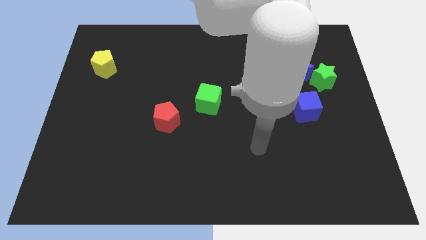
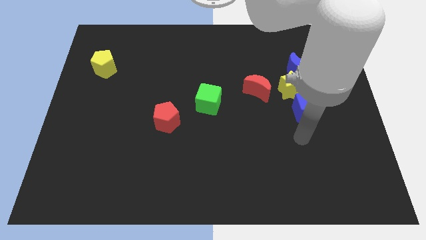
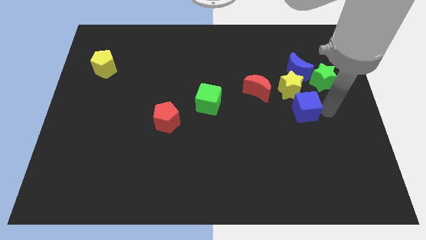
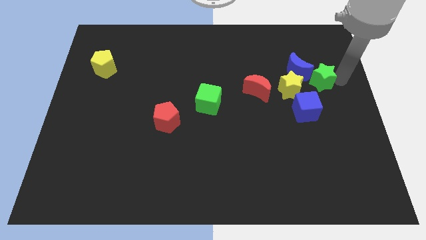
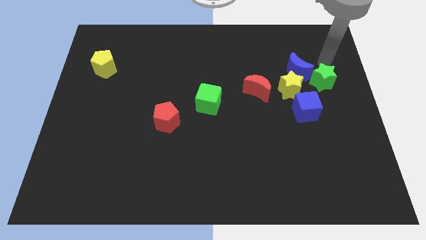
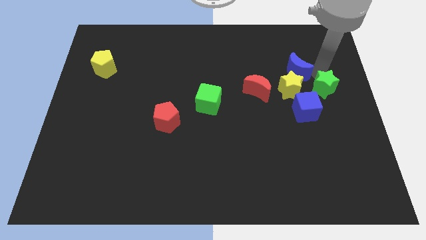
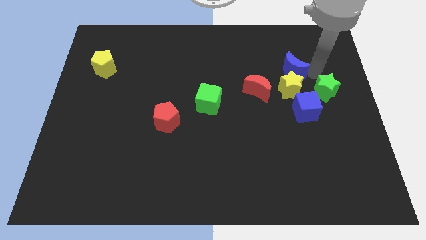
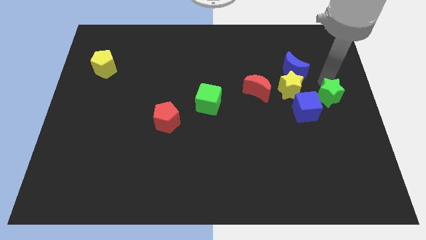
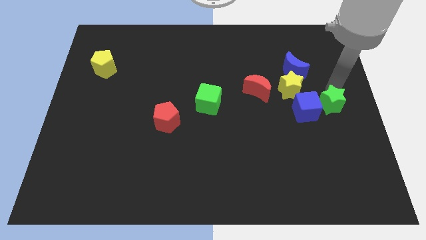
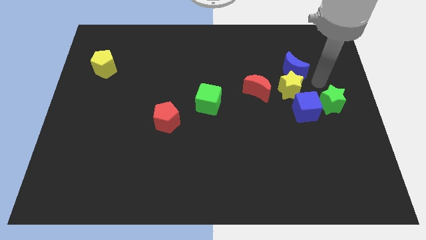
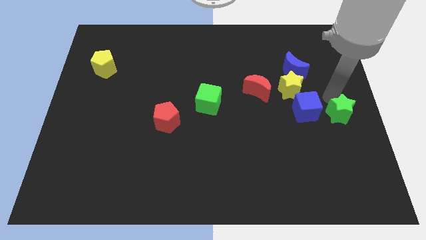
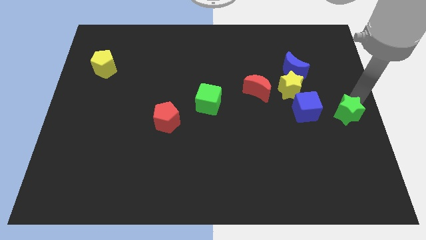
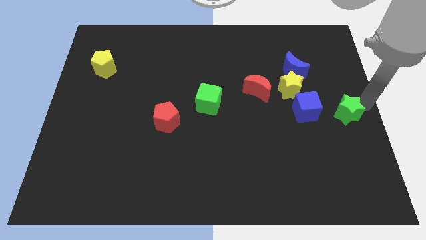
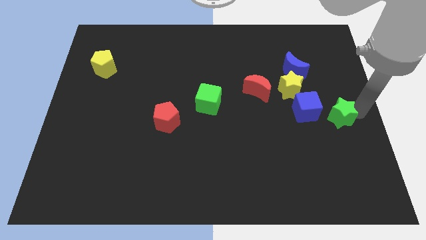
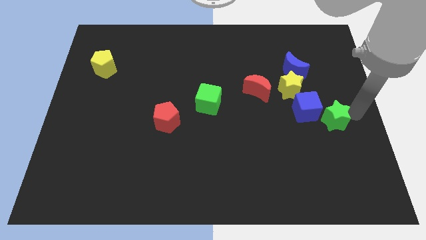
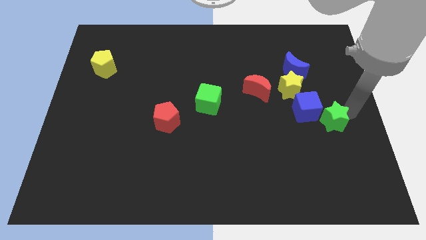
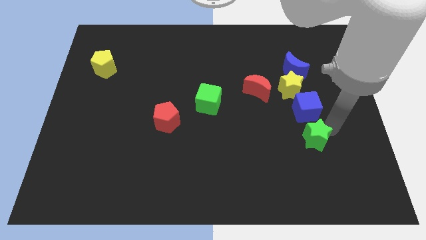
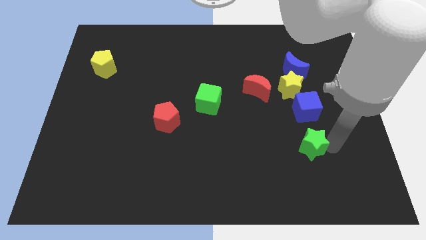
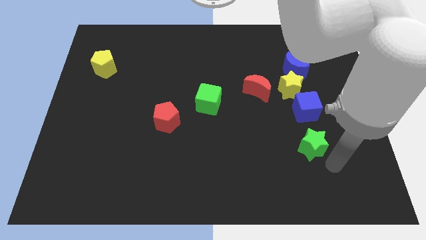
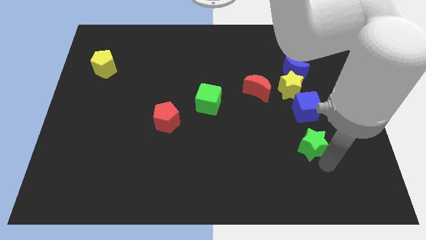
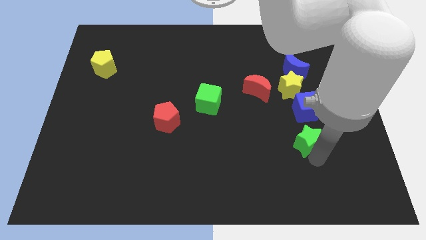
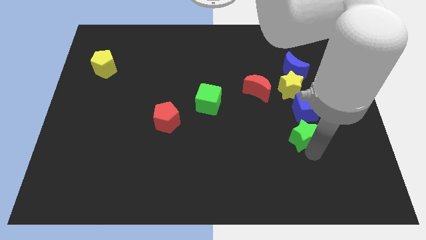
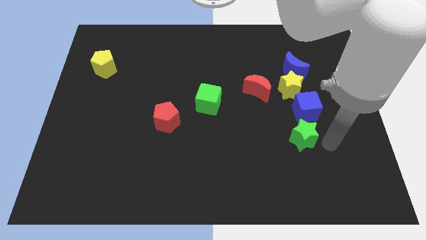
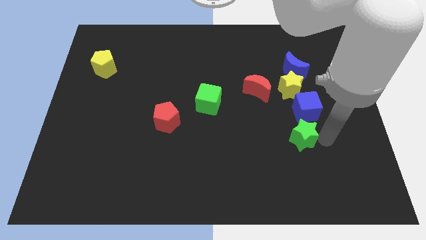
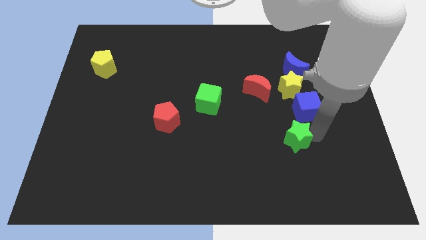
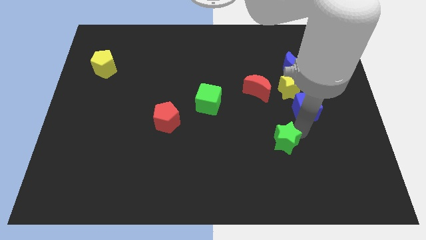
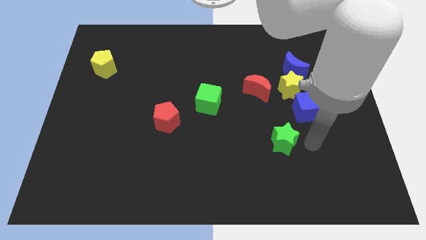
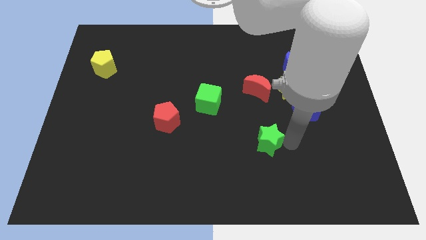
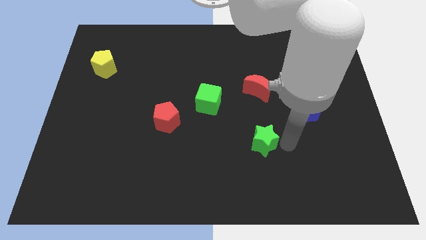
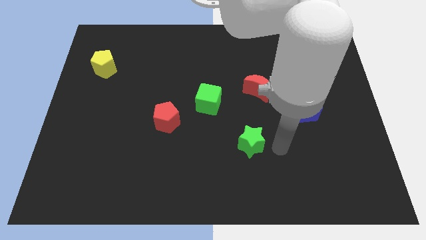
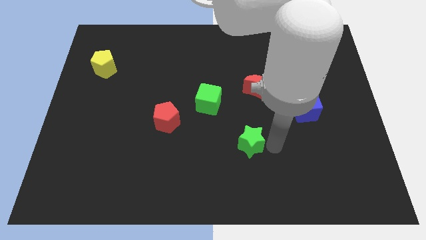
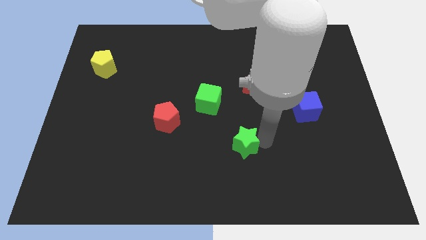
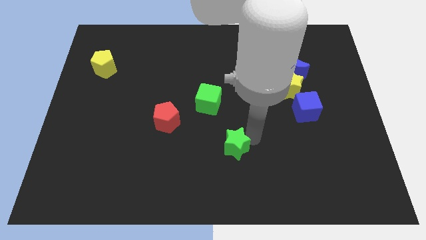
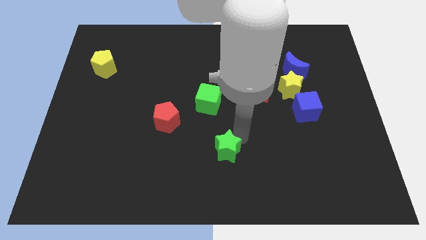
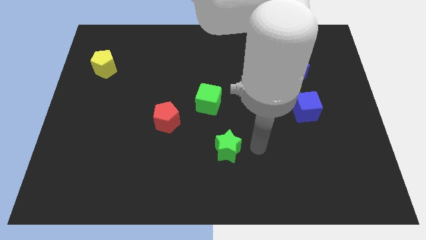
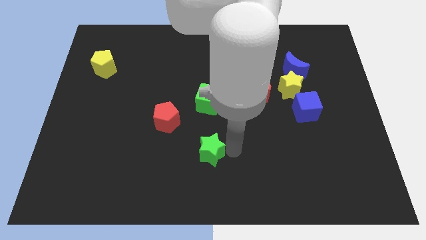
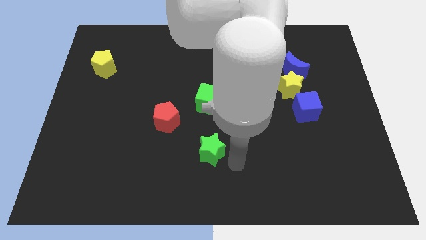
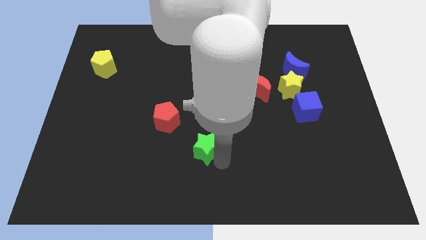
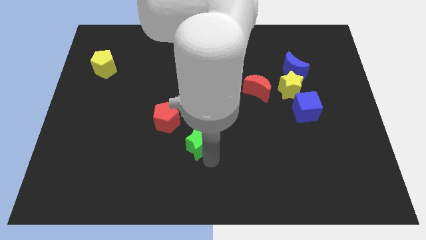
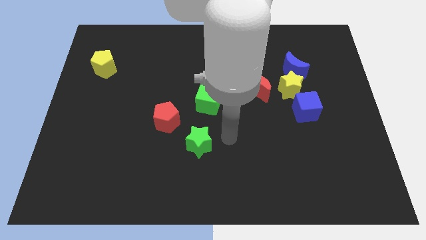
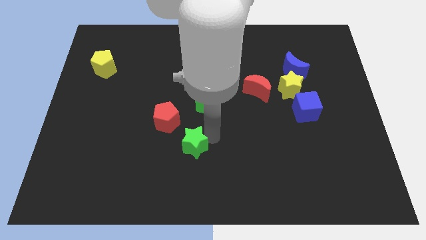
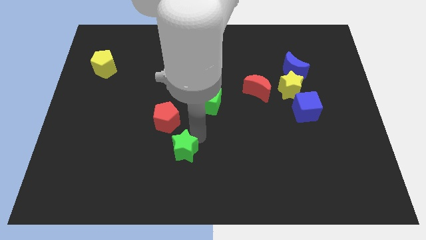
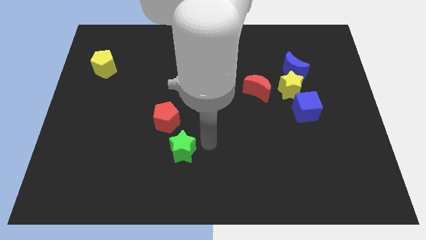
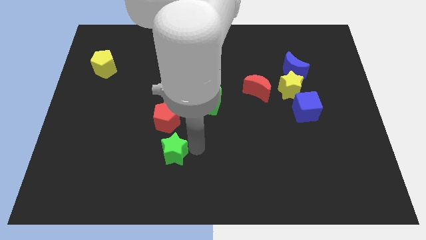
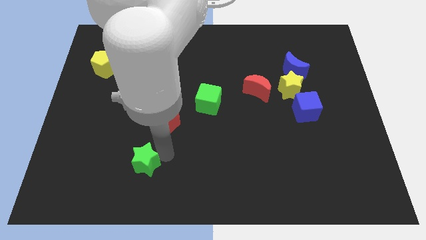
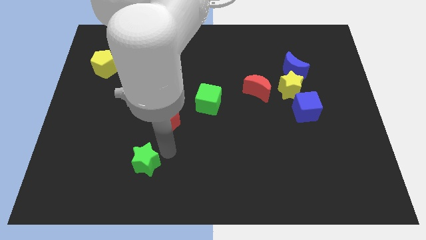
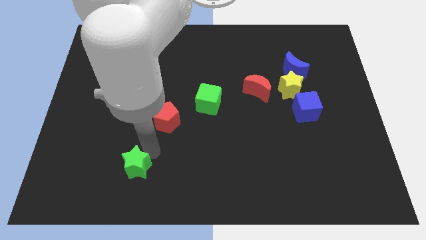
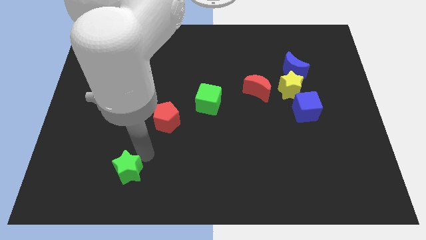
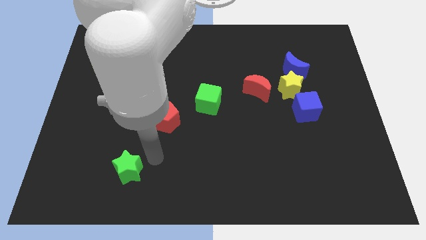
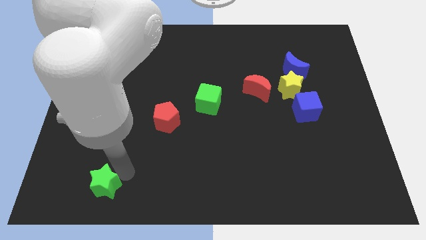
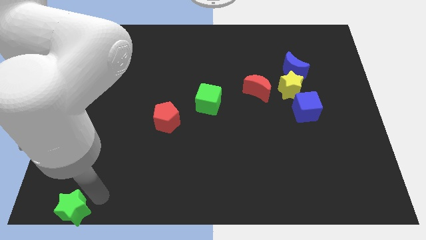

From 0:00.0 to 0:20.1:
push the green star to the bottom left of the board
